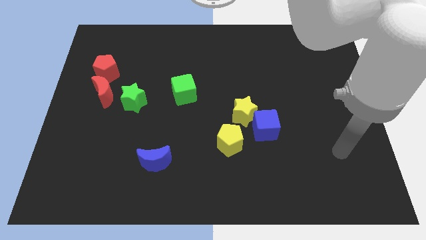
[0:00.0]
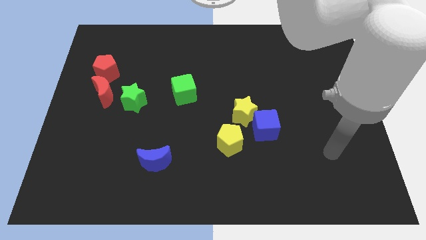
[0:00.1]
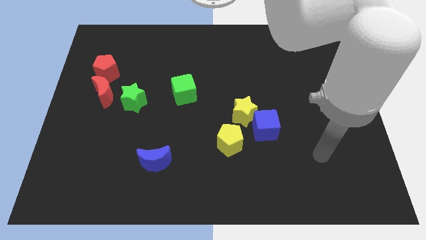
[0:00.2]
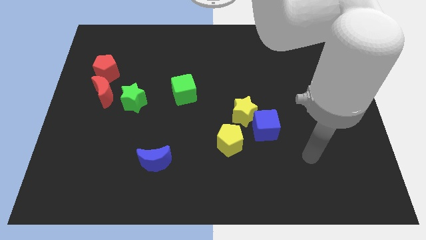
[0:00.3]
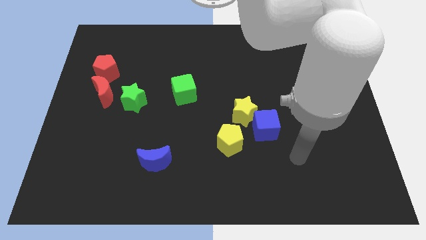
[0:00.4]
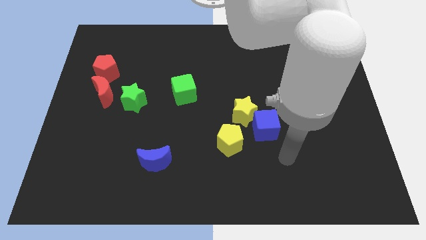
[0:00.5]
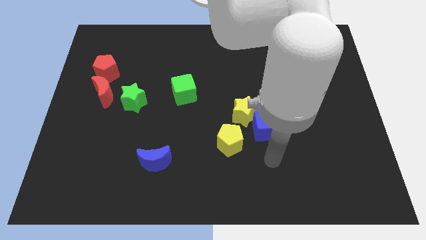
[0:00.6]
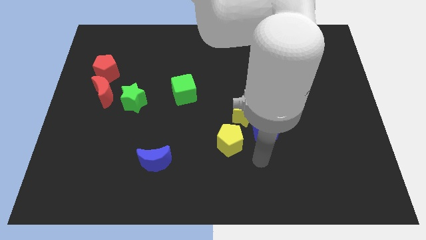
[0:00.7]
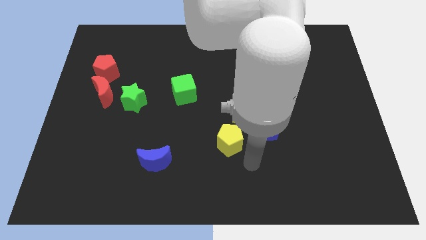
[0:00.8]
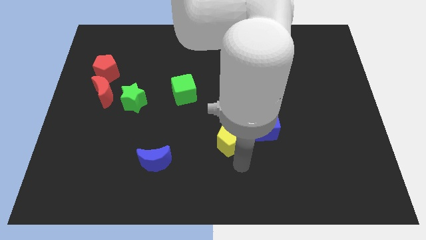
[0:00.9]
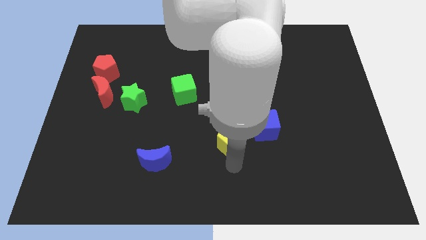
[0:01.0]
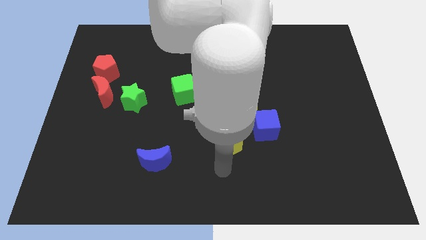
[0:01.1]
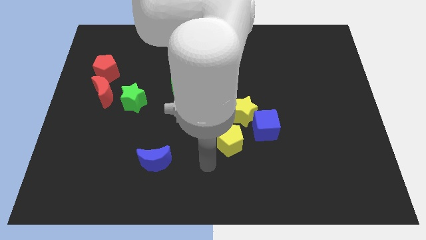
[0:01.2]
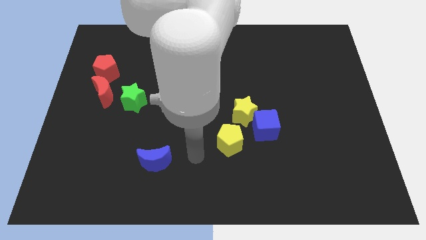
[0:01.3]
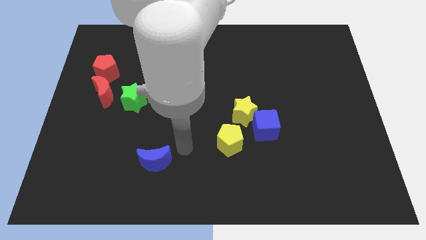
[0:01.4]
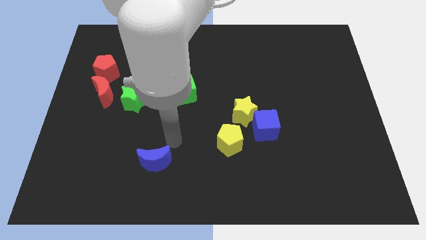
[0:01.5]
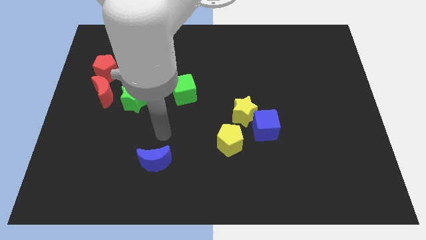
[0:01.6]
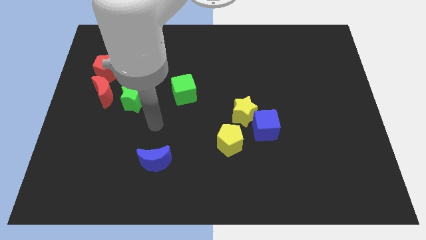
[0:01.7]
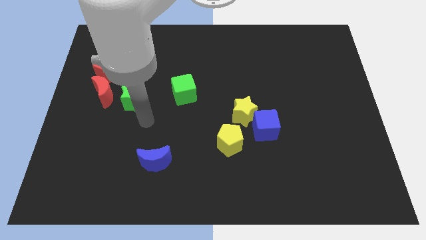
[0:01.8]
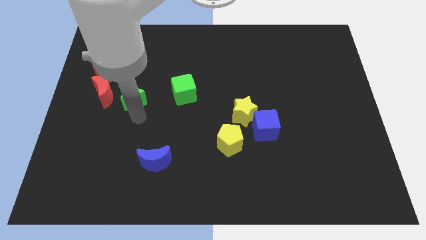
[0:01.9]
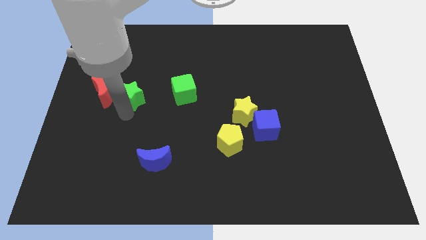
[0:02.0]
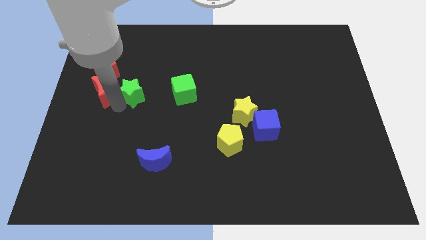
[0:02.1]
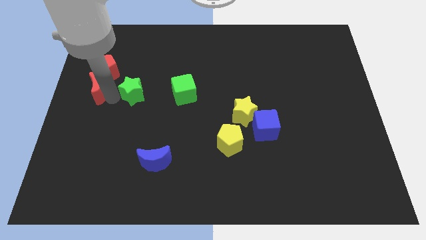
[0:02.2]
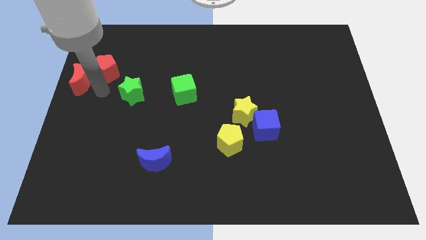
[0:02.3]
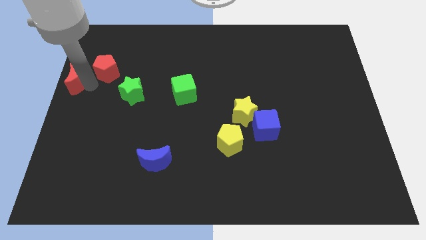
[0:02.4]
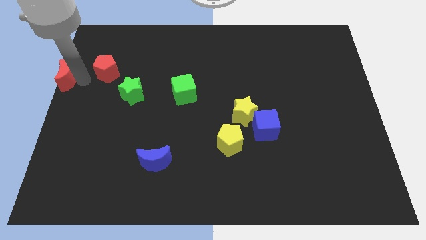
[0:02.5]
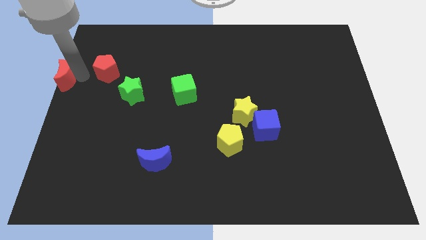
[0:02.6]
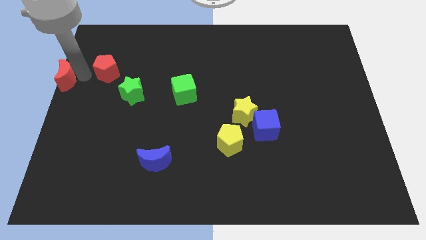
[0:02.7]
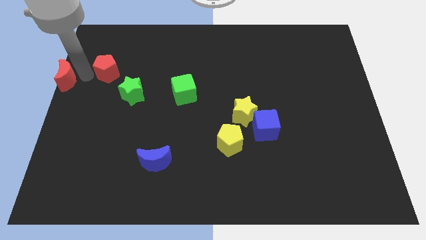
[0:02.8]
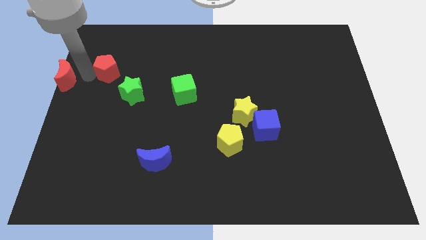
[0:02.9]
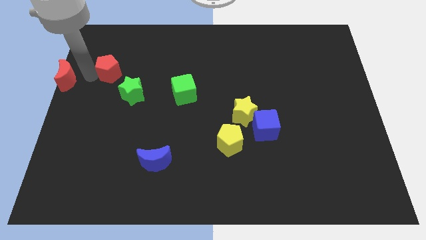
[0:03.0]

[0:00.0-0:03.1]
move the red pentagon away from the red moon

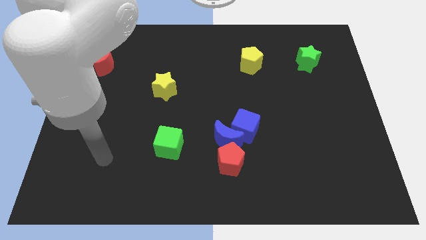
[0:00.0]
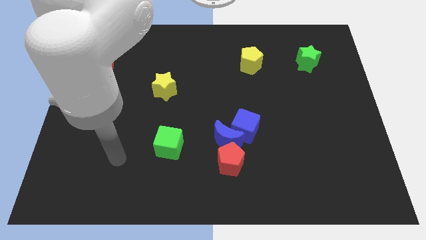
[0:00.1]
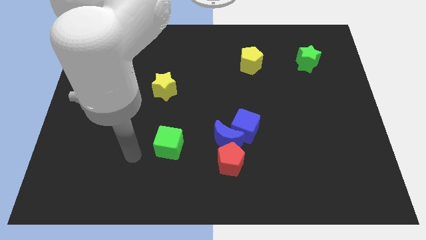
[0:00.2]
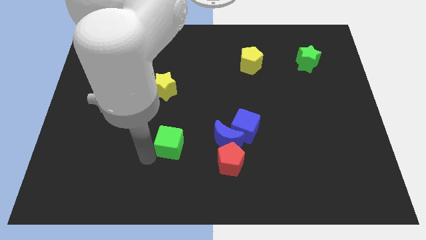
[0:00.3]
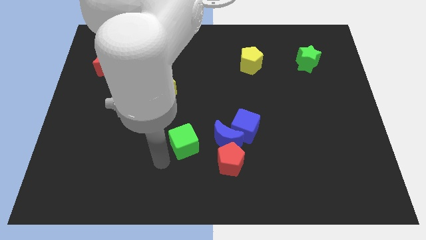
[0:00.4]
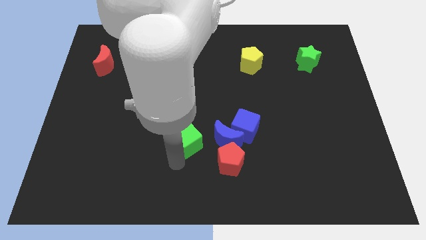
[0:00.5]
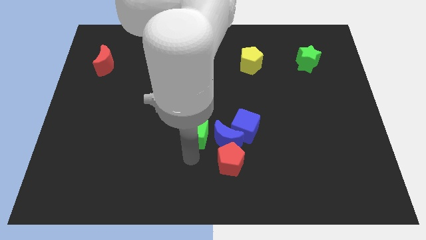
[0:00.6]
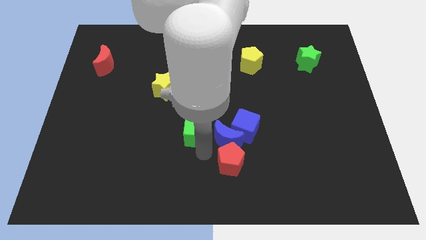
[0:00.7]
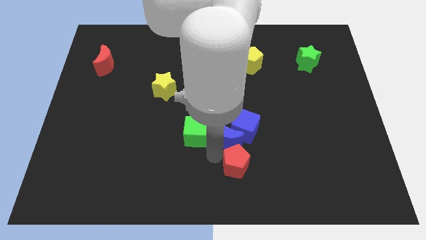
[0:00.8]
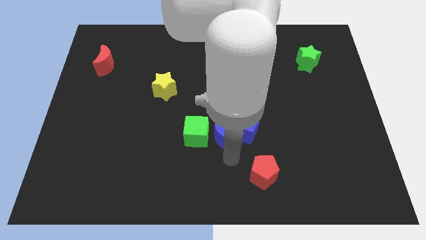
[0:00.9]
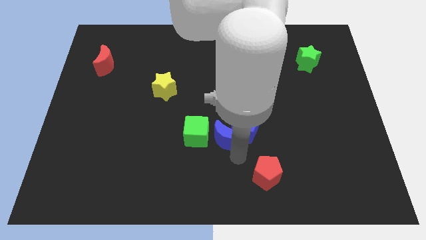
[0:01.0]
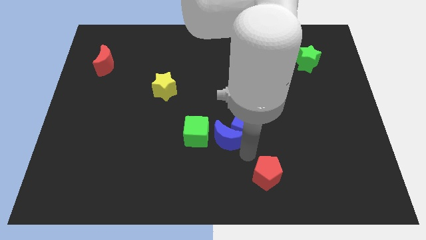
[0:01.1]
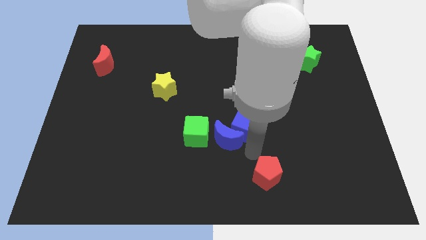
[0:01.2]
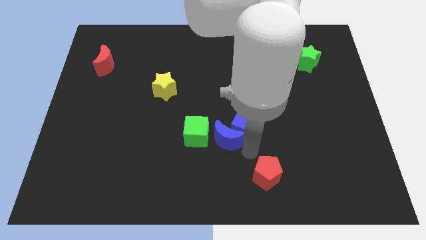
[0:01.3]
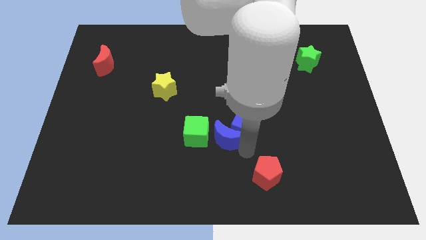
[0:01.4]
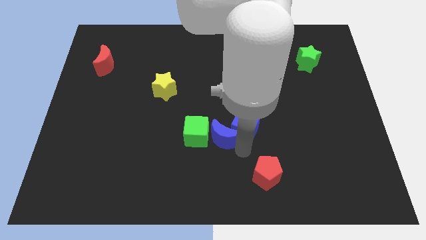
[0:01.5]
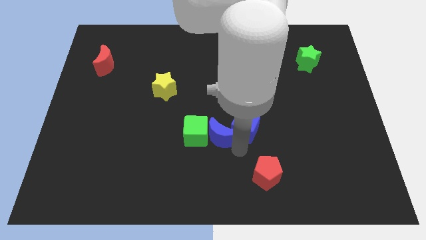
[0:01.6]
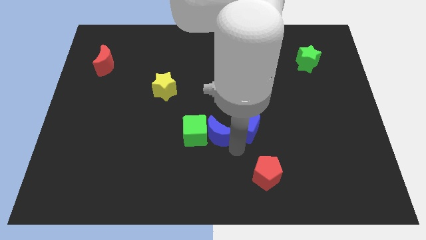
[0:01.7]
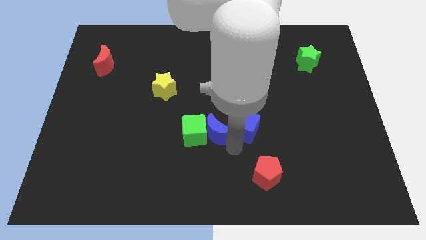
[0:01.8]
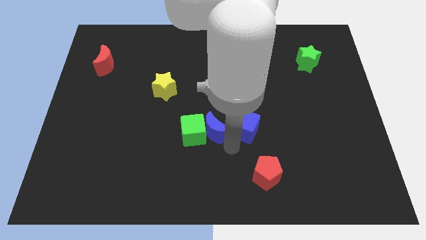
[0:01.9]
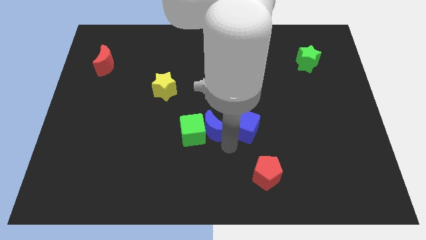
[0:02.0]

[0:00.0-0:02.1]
separate the blue moon from the blue cube and red pentagon

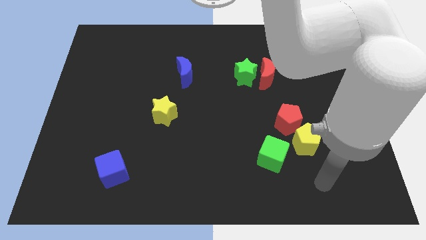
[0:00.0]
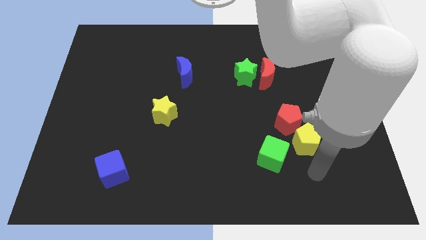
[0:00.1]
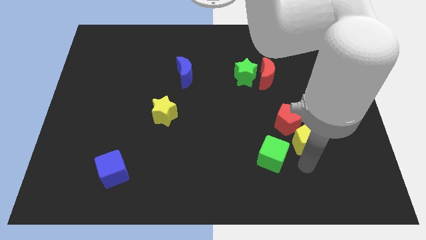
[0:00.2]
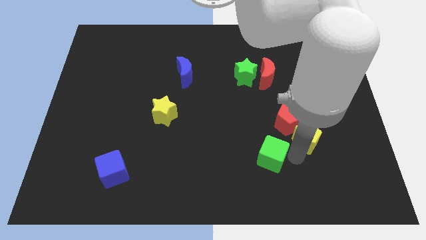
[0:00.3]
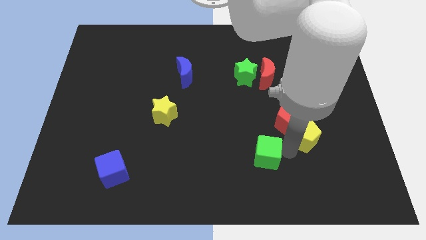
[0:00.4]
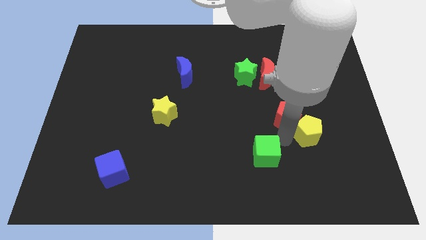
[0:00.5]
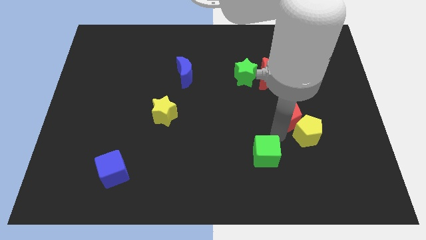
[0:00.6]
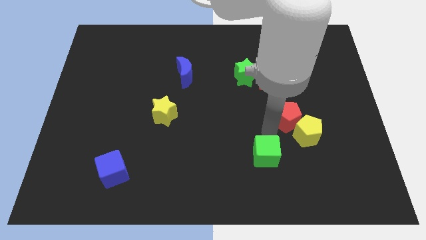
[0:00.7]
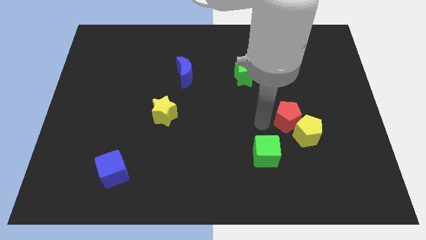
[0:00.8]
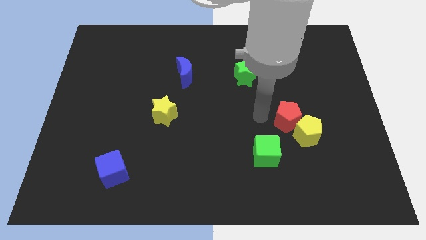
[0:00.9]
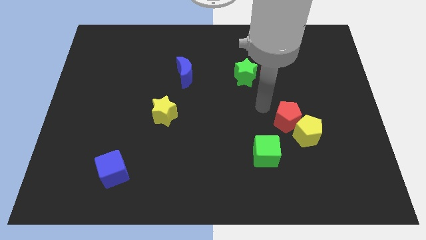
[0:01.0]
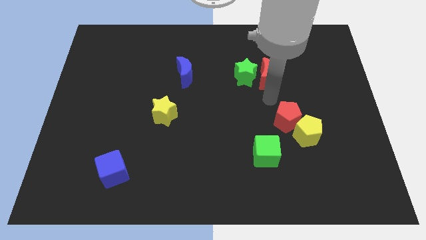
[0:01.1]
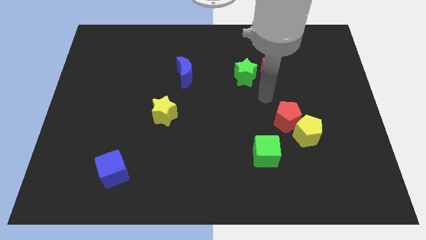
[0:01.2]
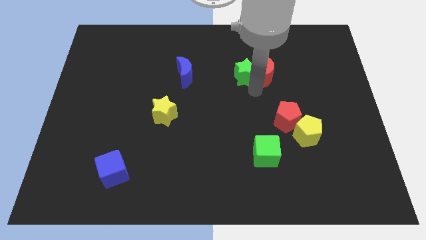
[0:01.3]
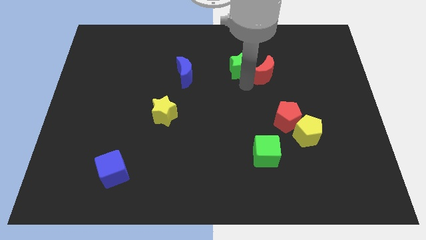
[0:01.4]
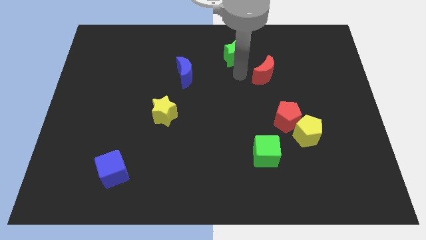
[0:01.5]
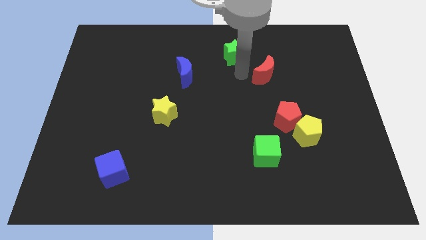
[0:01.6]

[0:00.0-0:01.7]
separate the red moon from the green star

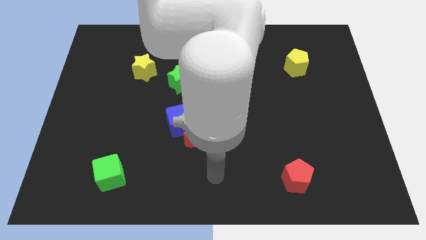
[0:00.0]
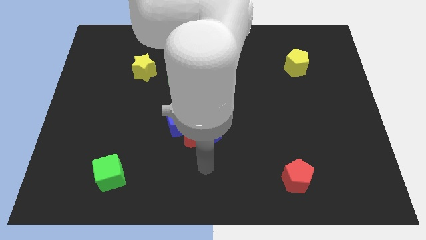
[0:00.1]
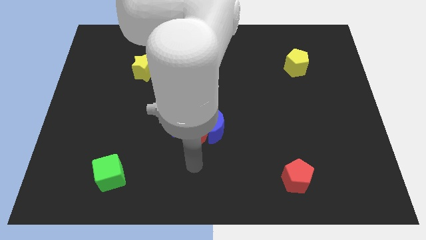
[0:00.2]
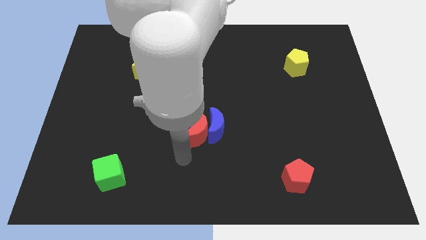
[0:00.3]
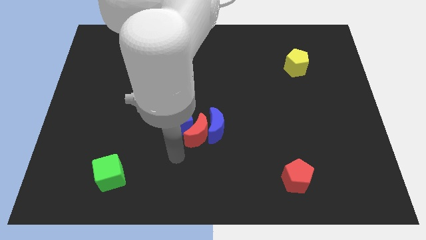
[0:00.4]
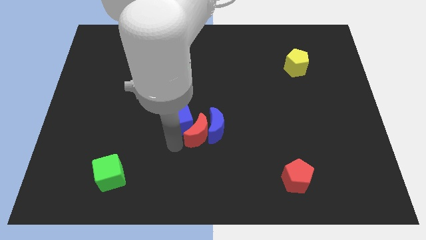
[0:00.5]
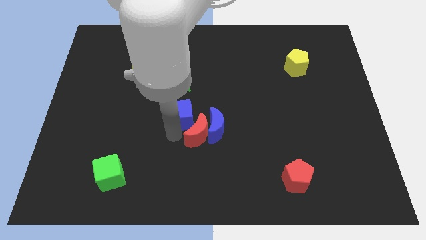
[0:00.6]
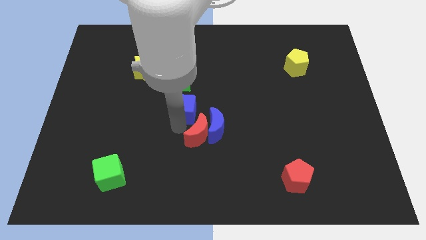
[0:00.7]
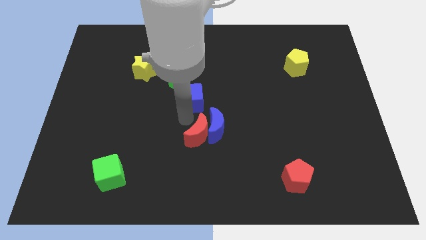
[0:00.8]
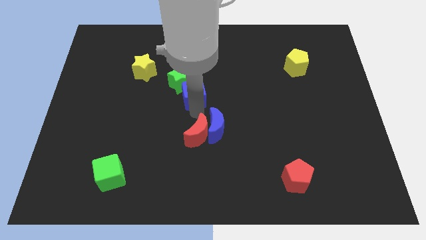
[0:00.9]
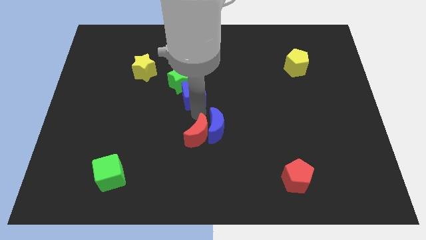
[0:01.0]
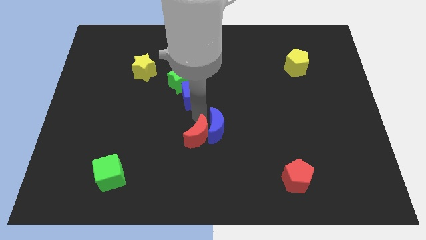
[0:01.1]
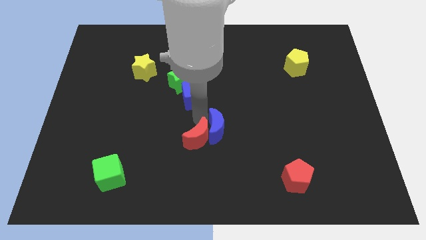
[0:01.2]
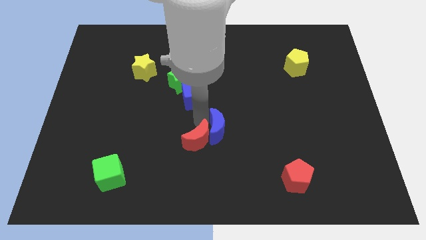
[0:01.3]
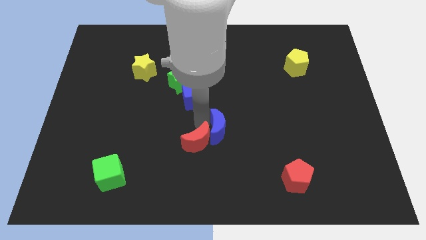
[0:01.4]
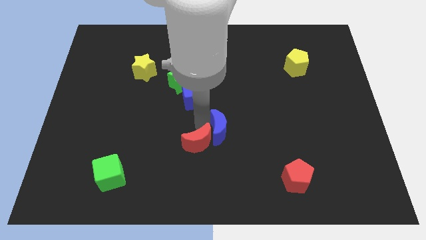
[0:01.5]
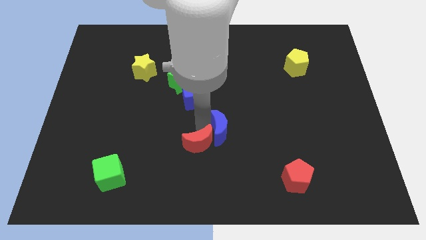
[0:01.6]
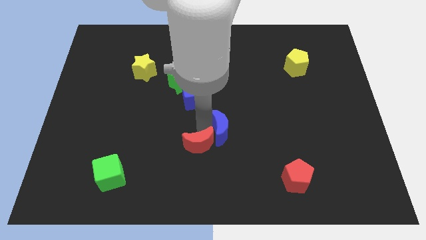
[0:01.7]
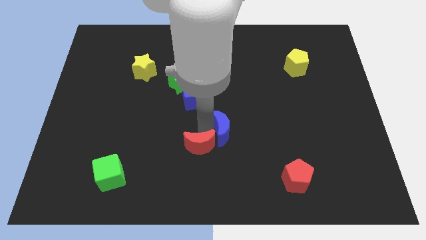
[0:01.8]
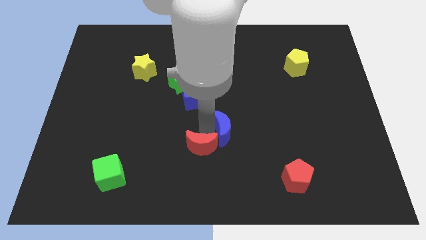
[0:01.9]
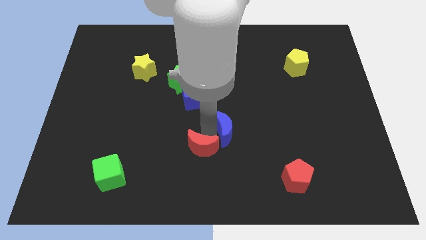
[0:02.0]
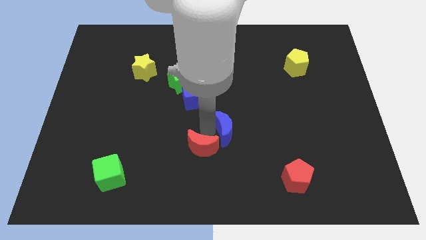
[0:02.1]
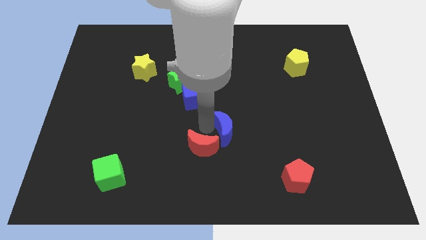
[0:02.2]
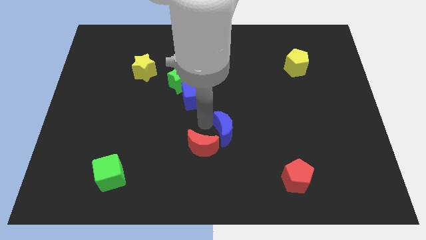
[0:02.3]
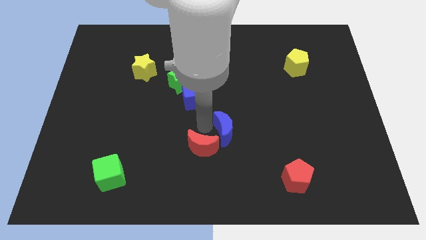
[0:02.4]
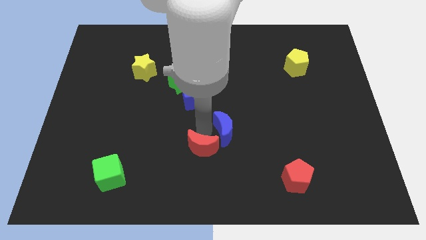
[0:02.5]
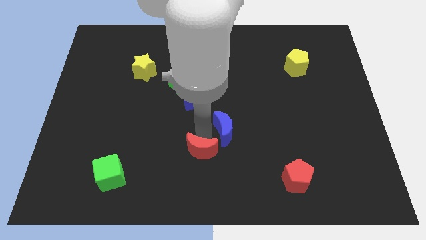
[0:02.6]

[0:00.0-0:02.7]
move the red moon away from the blue moon and blue cube

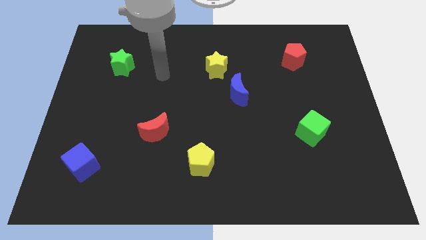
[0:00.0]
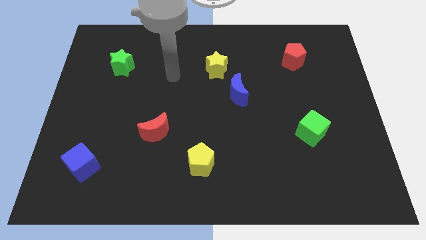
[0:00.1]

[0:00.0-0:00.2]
pull the blue moon apart from the yellow star
